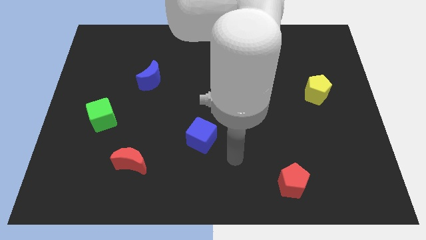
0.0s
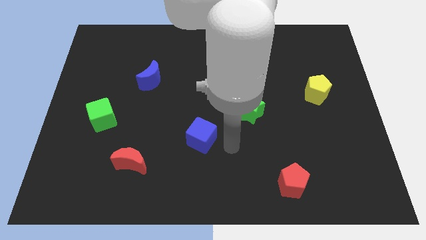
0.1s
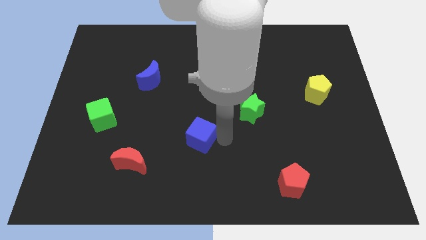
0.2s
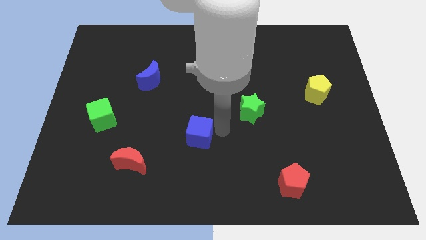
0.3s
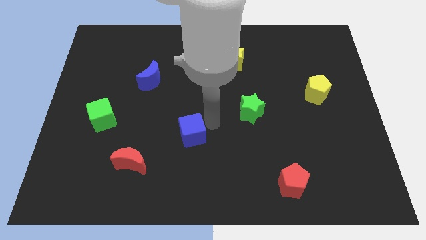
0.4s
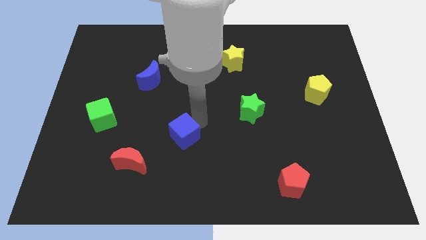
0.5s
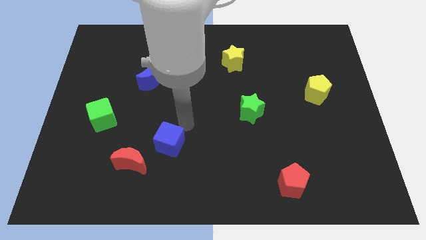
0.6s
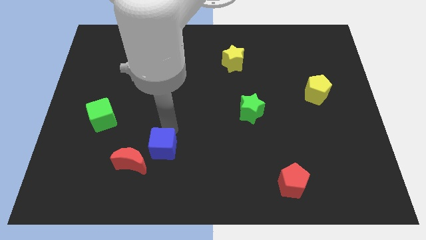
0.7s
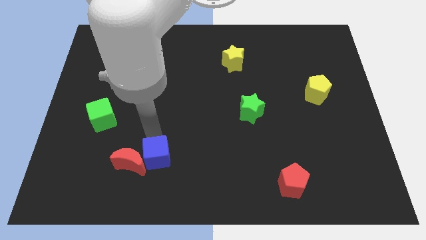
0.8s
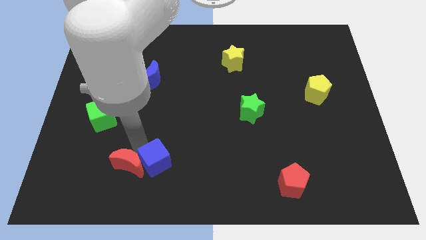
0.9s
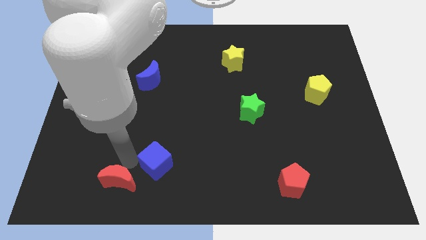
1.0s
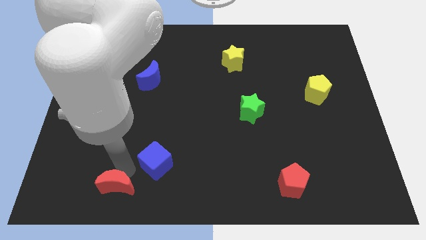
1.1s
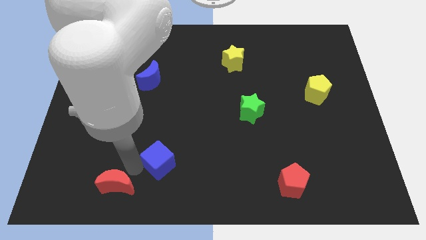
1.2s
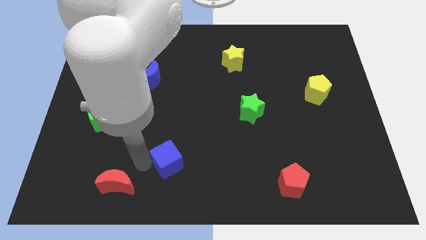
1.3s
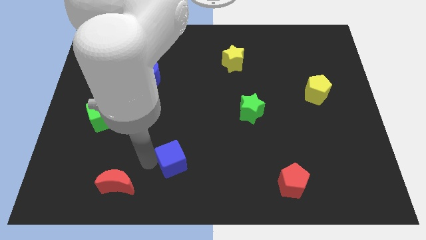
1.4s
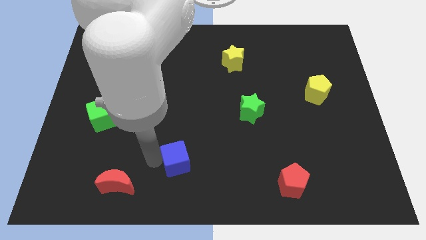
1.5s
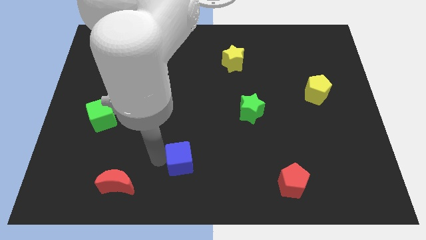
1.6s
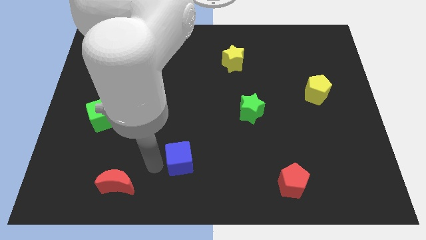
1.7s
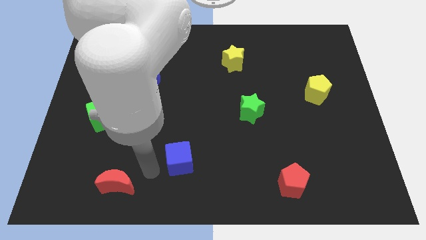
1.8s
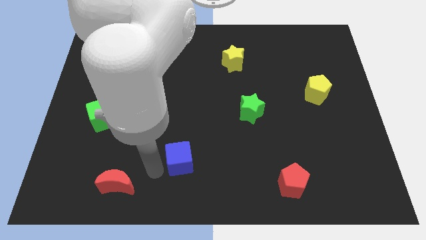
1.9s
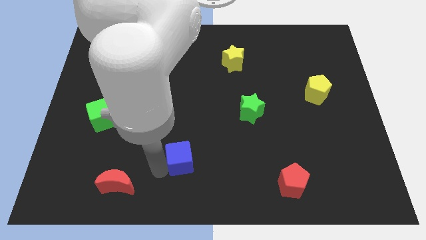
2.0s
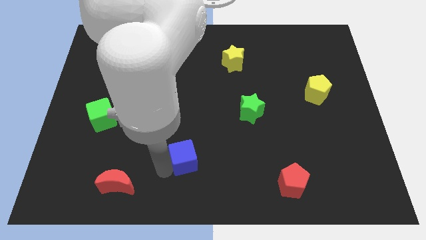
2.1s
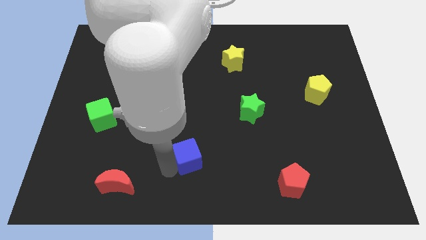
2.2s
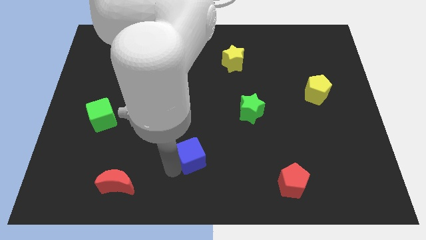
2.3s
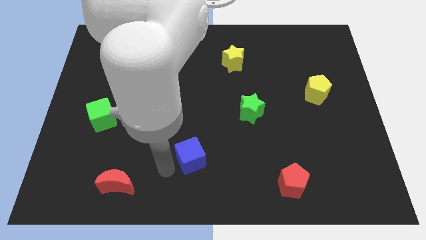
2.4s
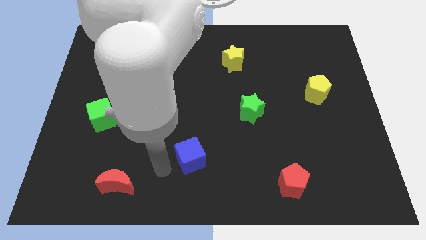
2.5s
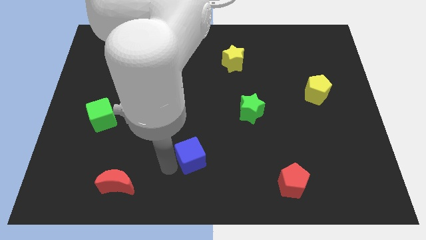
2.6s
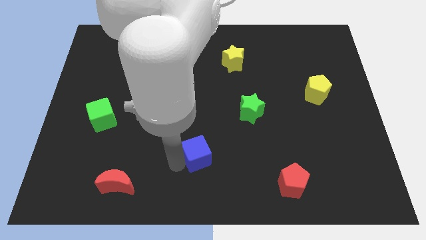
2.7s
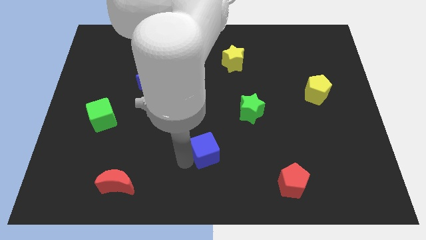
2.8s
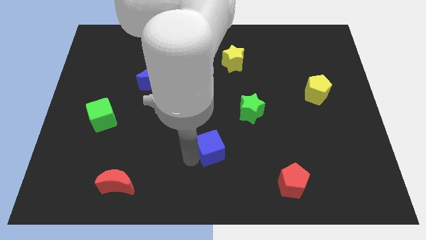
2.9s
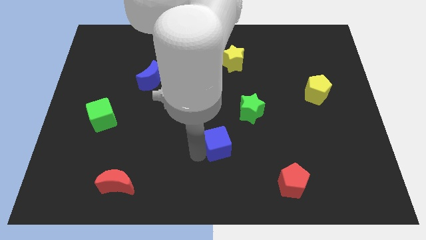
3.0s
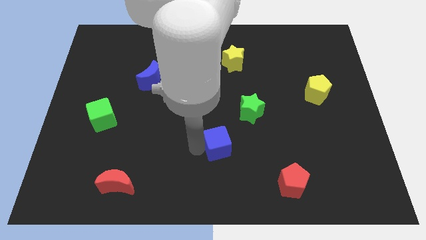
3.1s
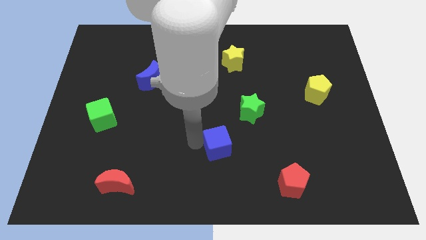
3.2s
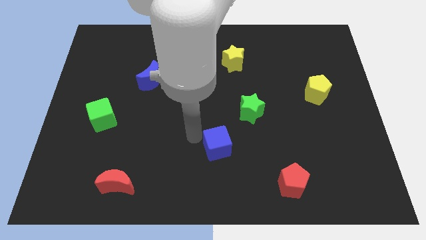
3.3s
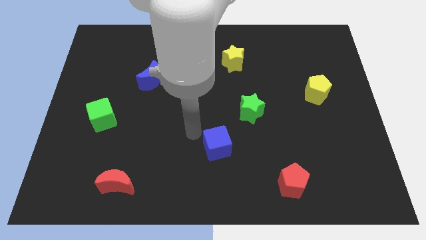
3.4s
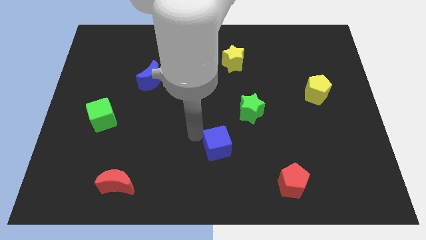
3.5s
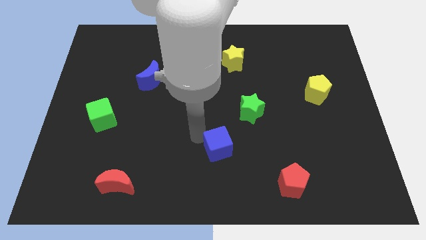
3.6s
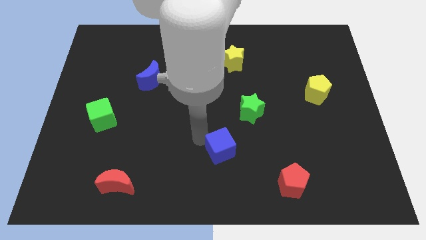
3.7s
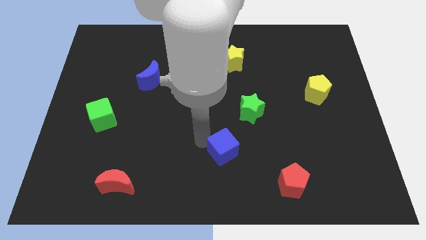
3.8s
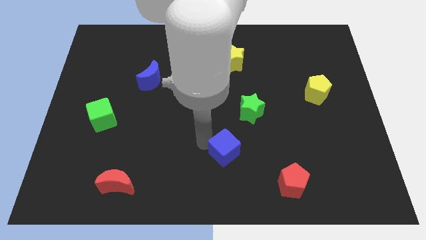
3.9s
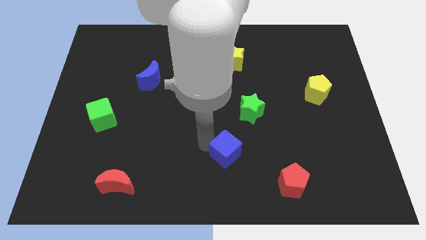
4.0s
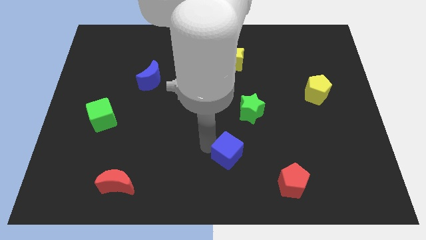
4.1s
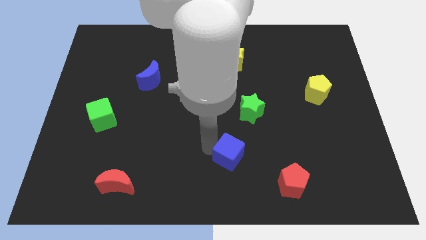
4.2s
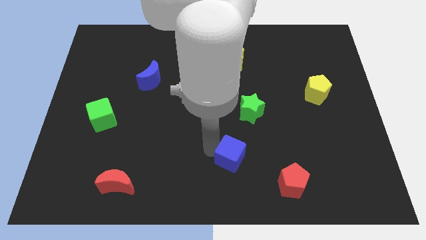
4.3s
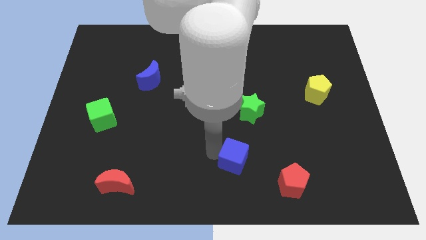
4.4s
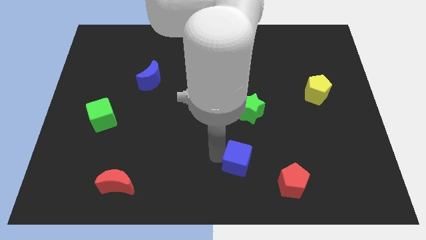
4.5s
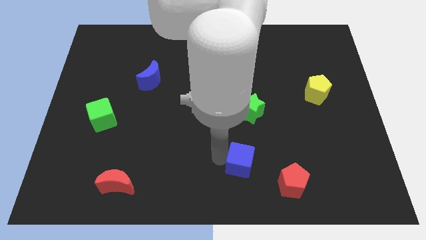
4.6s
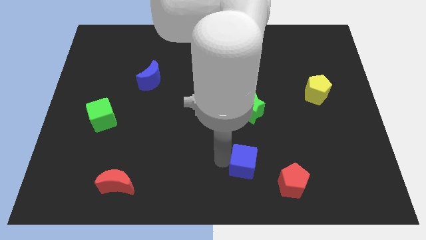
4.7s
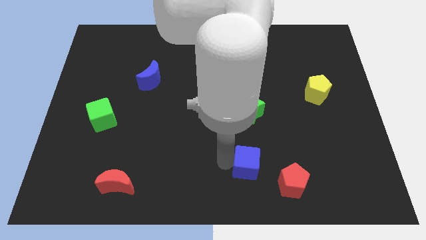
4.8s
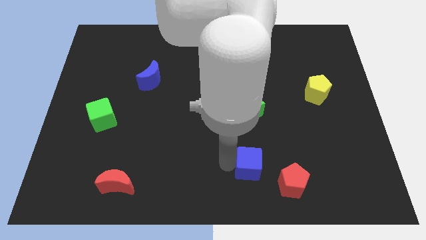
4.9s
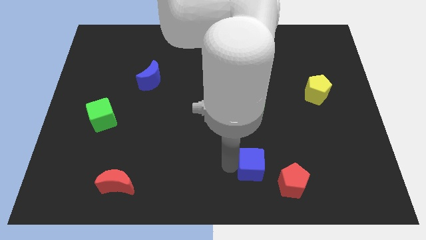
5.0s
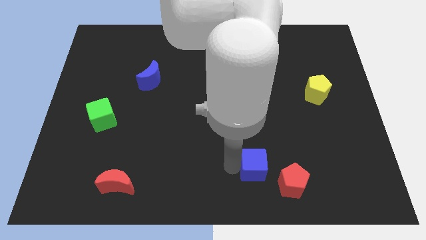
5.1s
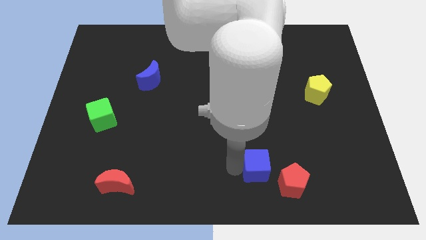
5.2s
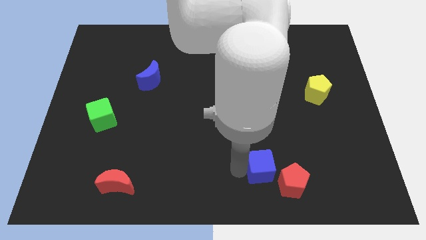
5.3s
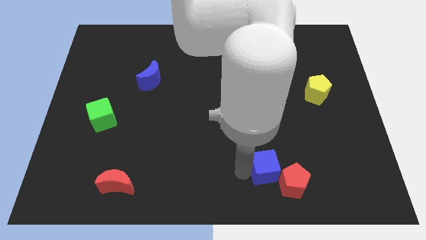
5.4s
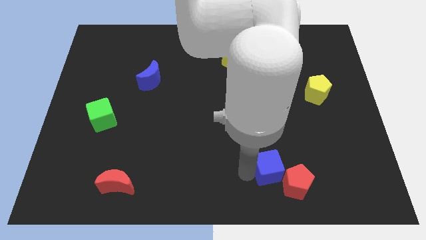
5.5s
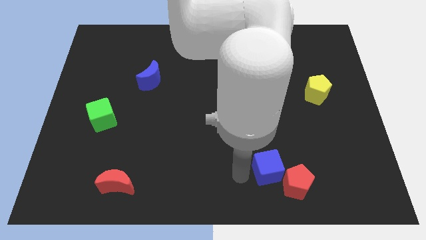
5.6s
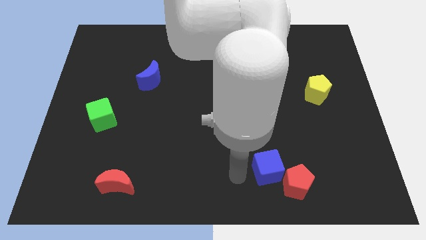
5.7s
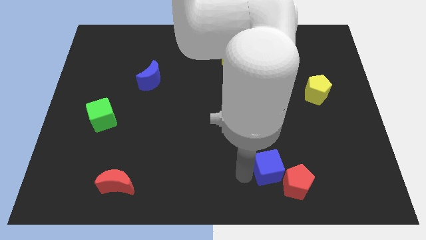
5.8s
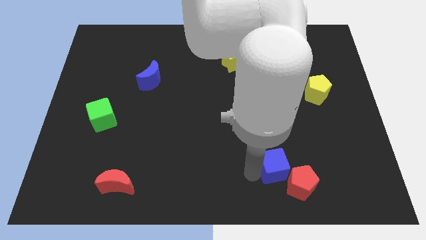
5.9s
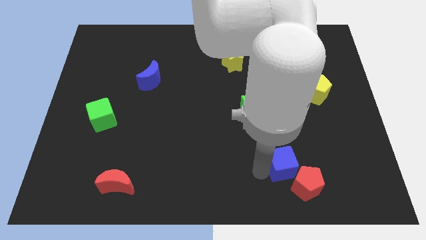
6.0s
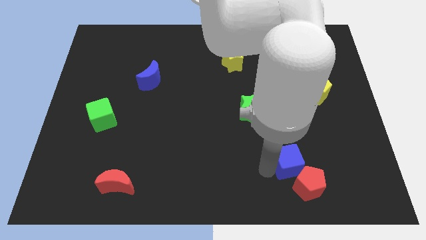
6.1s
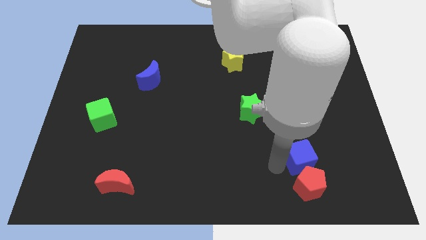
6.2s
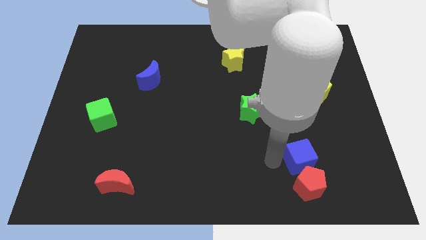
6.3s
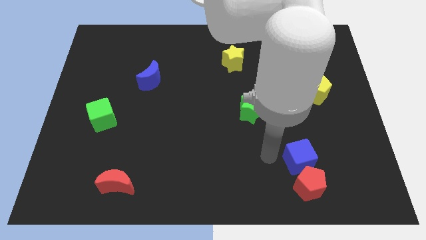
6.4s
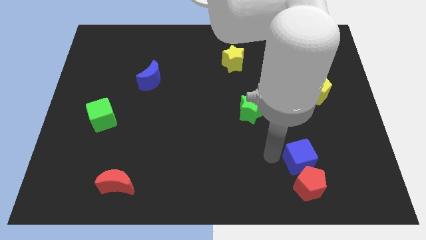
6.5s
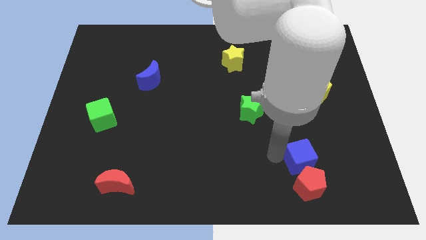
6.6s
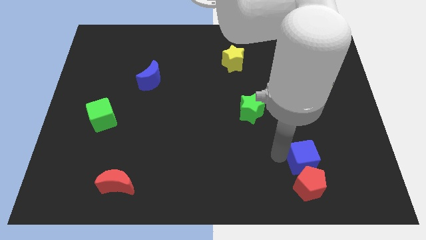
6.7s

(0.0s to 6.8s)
push the blue cube to the top right side of the red pentagon
